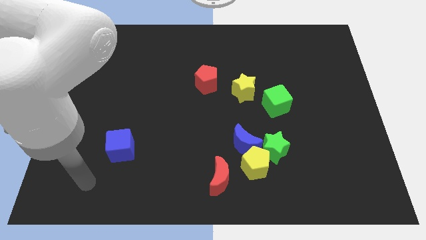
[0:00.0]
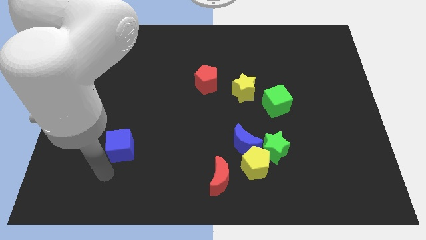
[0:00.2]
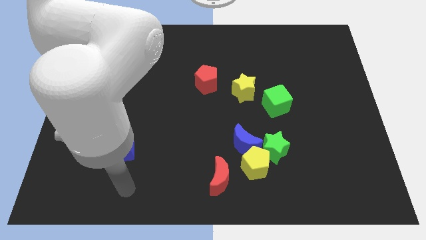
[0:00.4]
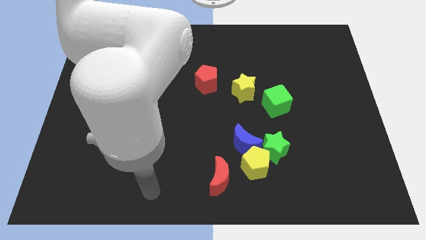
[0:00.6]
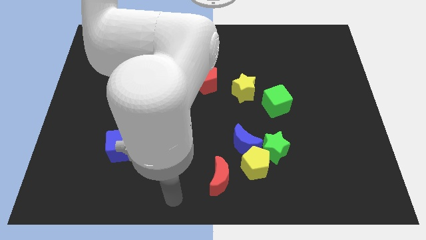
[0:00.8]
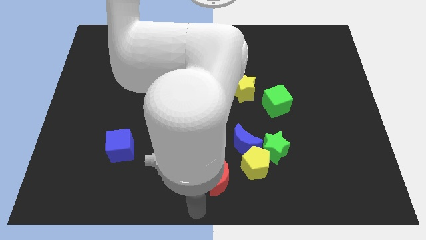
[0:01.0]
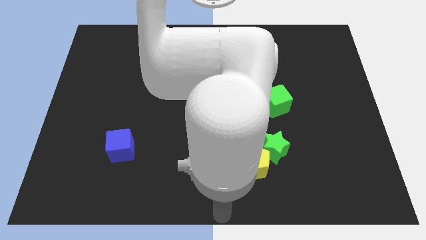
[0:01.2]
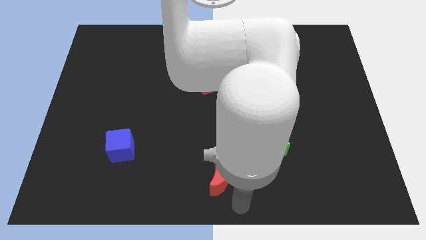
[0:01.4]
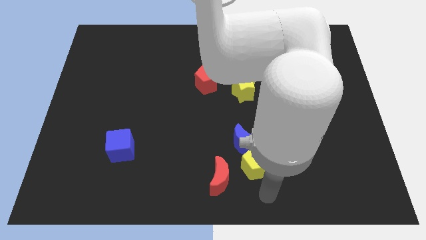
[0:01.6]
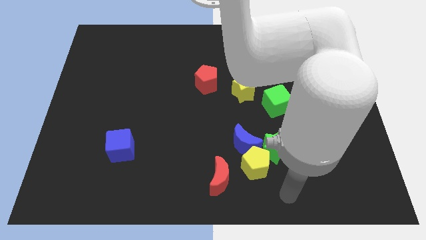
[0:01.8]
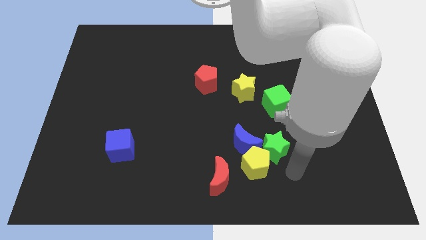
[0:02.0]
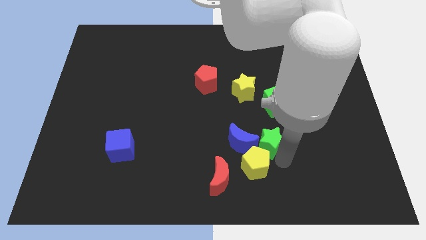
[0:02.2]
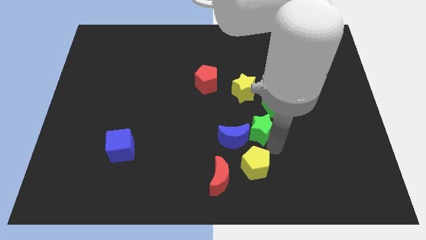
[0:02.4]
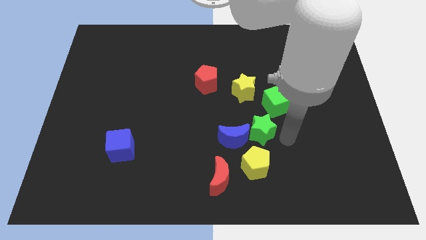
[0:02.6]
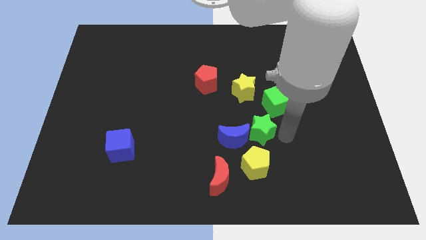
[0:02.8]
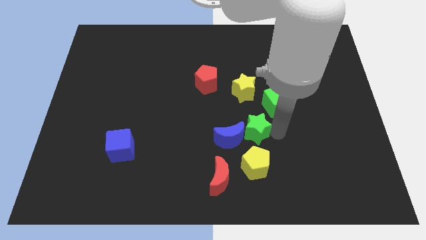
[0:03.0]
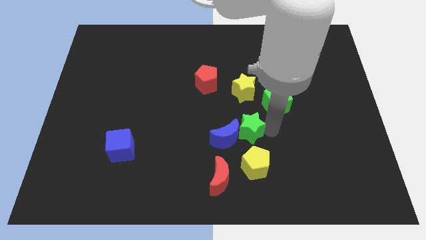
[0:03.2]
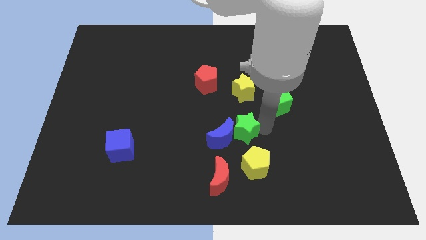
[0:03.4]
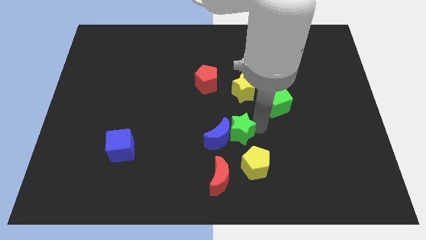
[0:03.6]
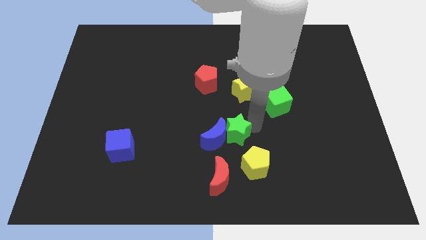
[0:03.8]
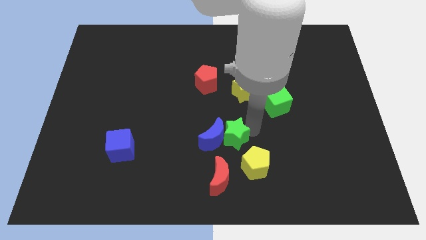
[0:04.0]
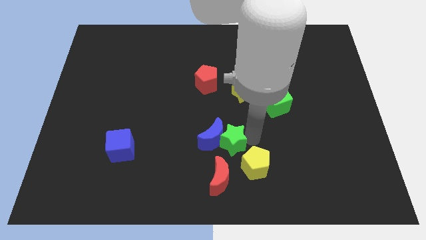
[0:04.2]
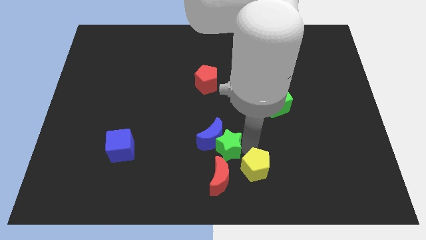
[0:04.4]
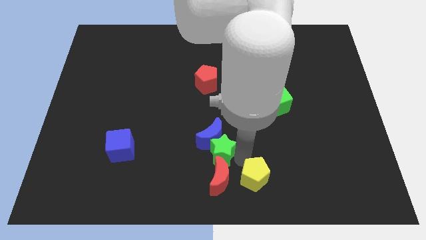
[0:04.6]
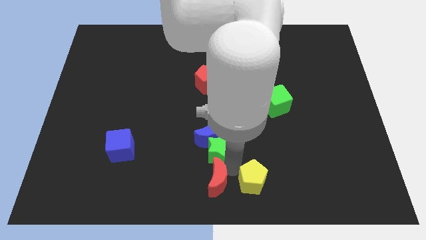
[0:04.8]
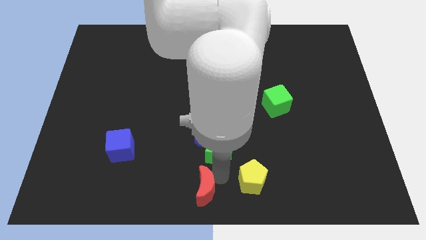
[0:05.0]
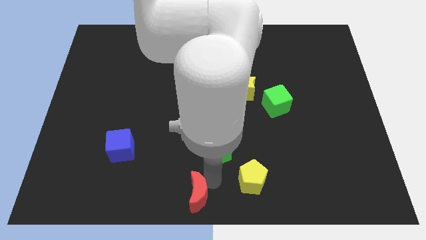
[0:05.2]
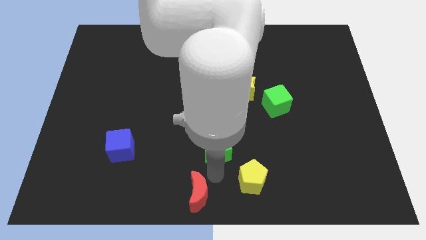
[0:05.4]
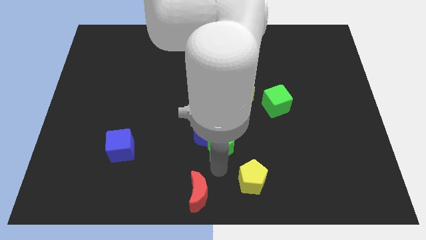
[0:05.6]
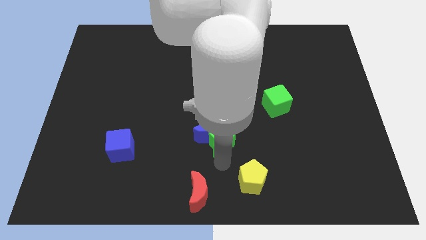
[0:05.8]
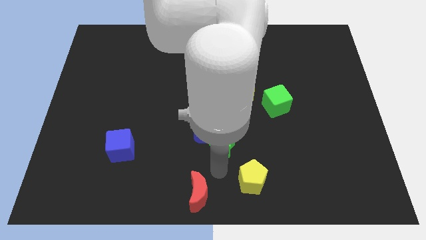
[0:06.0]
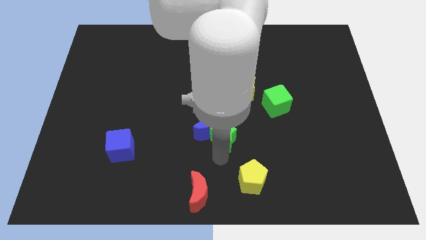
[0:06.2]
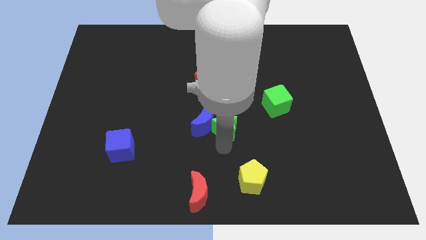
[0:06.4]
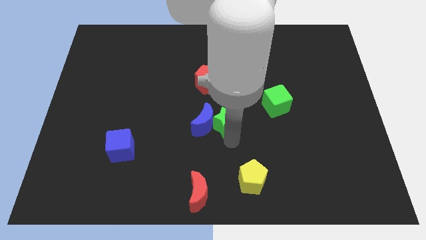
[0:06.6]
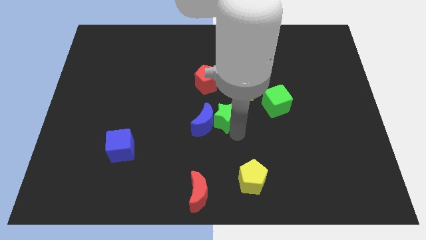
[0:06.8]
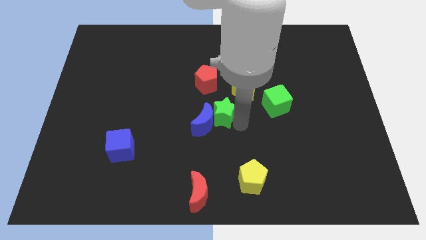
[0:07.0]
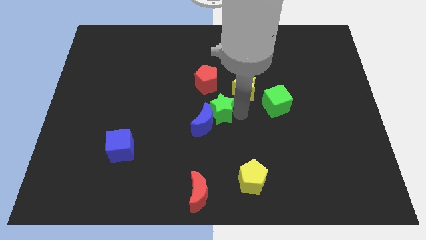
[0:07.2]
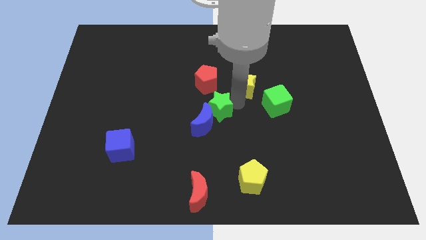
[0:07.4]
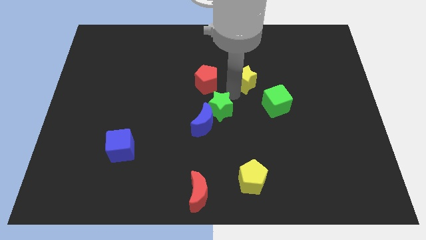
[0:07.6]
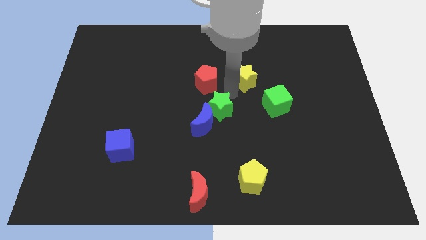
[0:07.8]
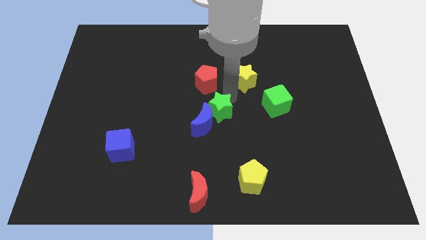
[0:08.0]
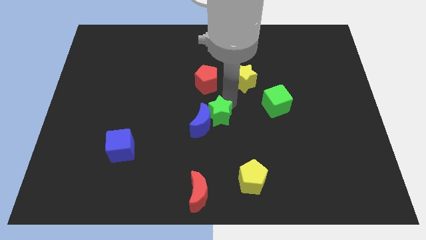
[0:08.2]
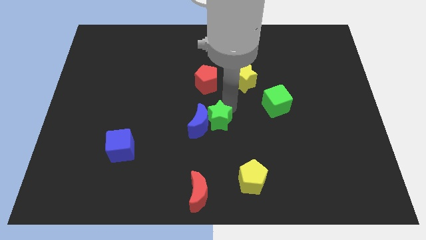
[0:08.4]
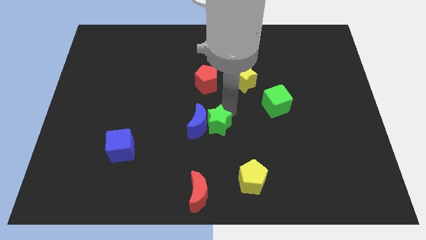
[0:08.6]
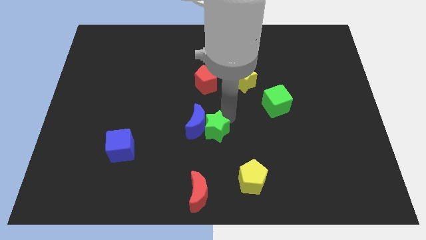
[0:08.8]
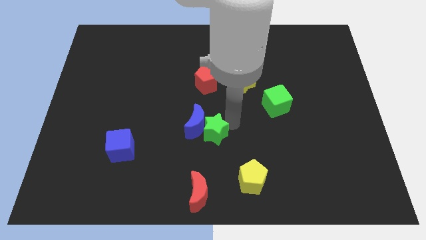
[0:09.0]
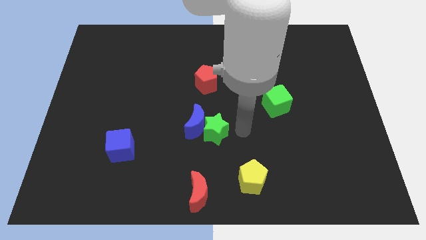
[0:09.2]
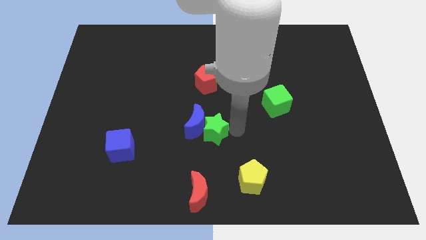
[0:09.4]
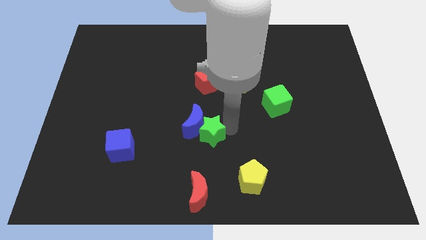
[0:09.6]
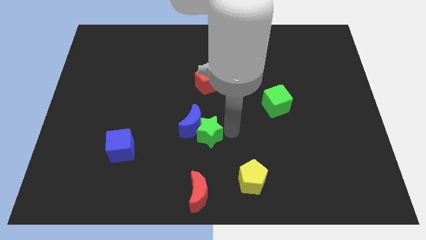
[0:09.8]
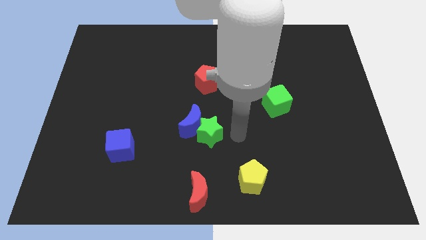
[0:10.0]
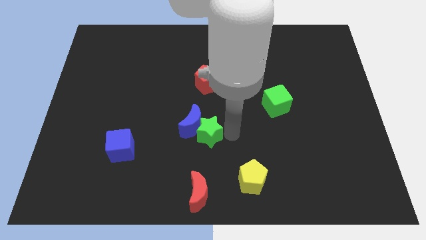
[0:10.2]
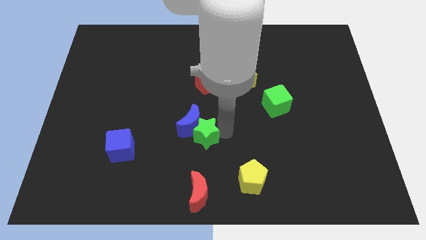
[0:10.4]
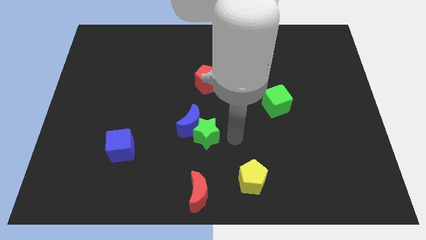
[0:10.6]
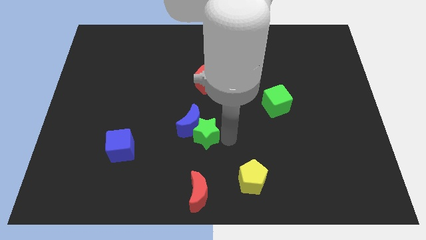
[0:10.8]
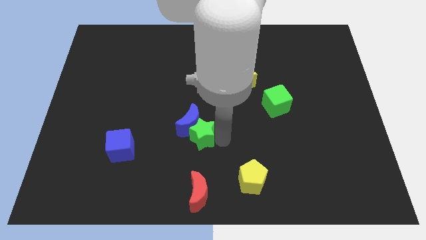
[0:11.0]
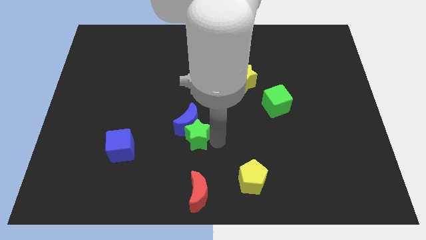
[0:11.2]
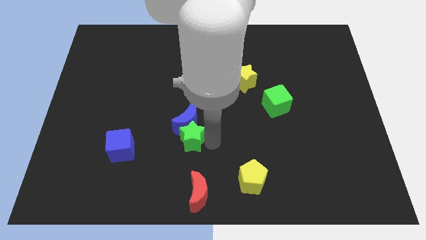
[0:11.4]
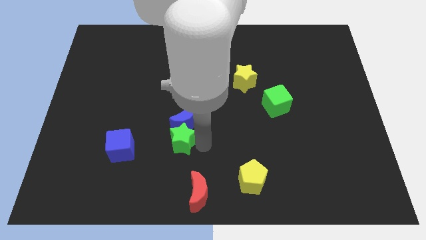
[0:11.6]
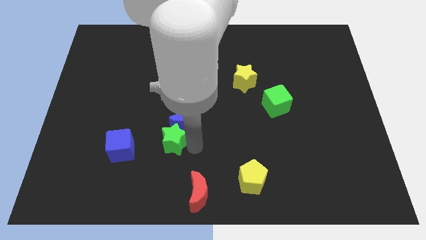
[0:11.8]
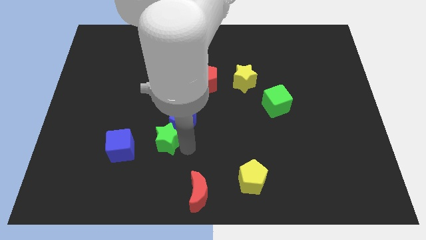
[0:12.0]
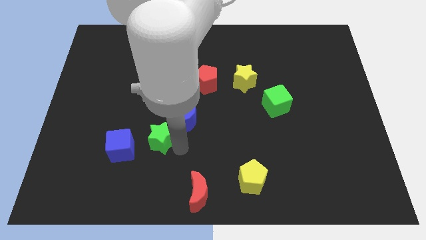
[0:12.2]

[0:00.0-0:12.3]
slide the green star to the top right of the blue cube

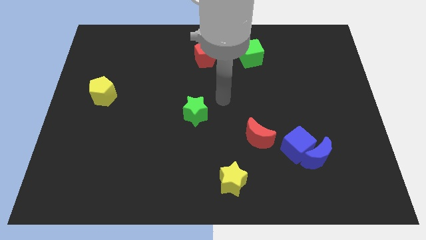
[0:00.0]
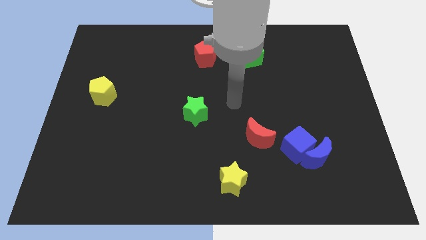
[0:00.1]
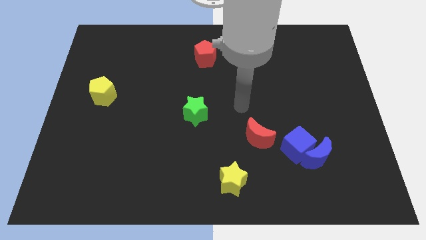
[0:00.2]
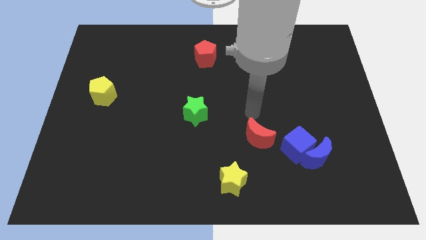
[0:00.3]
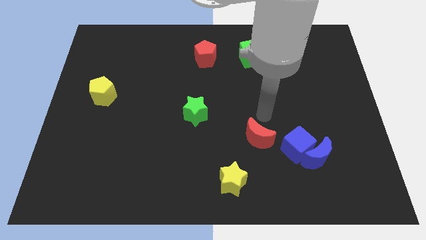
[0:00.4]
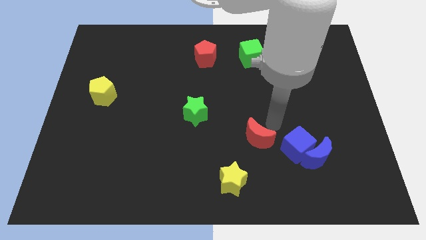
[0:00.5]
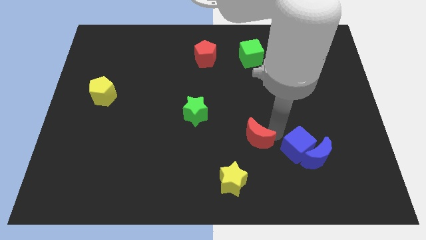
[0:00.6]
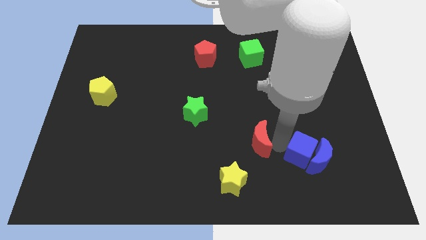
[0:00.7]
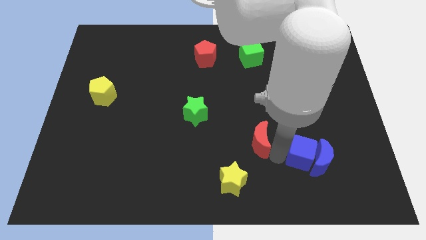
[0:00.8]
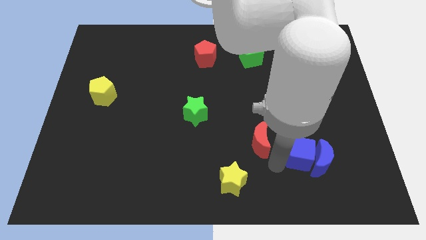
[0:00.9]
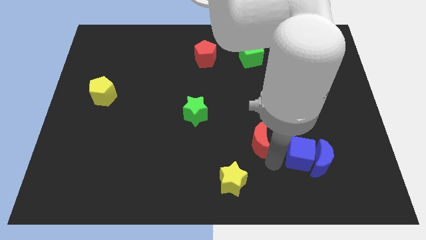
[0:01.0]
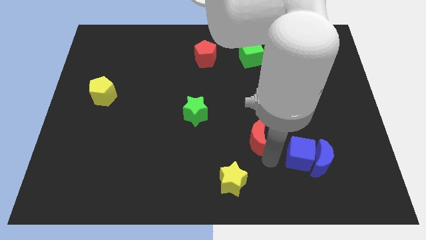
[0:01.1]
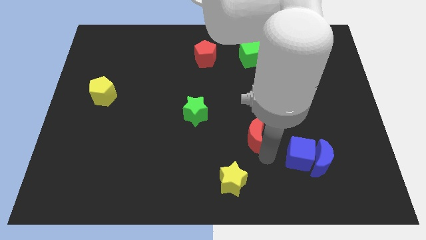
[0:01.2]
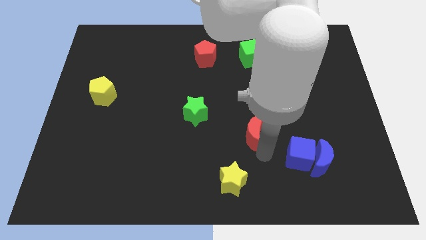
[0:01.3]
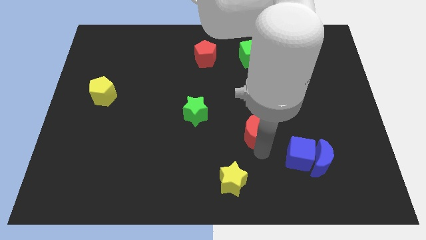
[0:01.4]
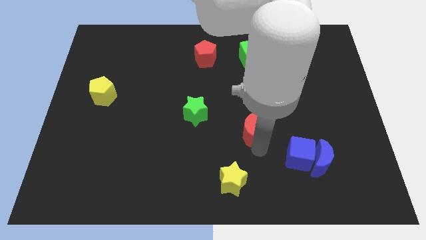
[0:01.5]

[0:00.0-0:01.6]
move the red moon just right of the green star
